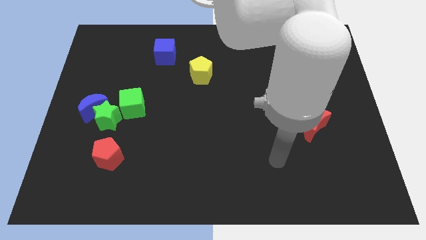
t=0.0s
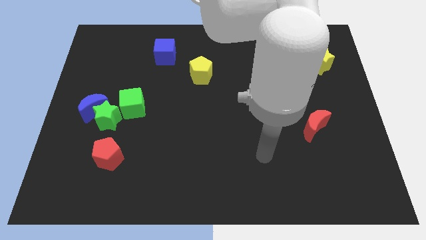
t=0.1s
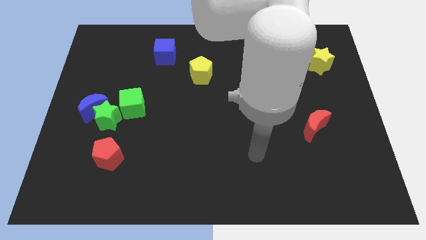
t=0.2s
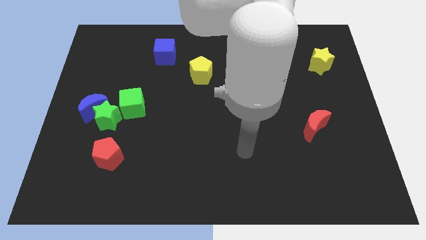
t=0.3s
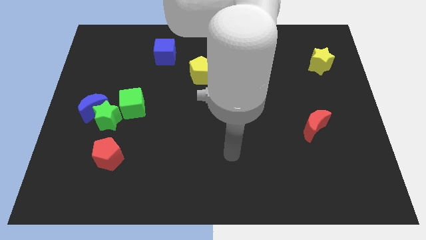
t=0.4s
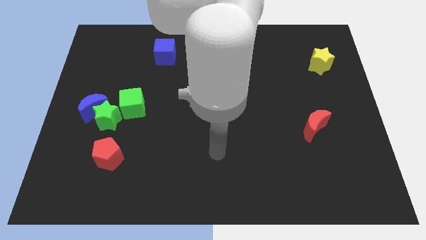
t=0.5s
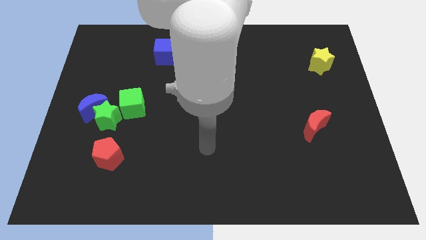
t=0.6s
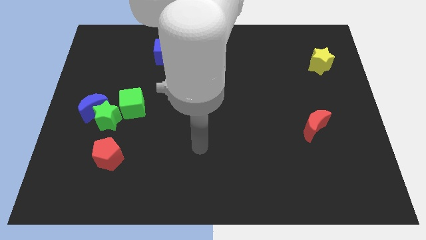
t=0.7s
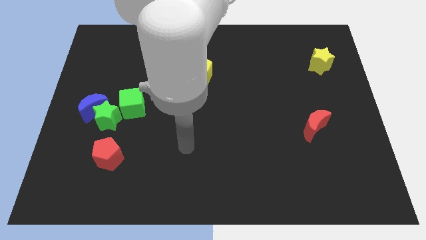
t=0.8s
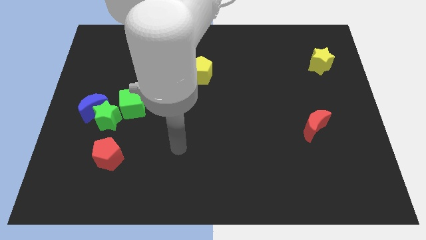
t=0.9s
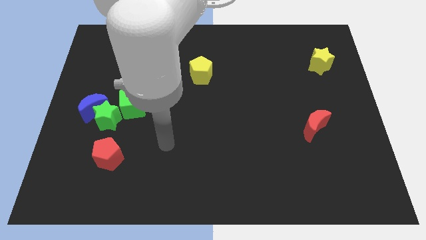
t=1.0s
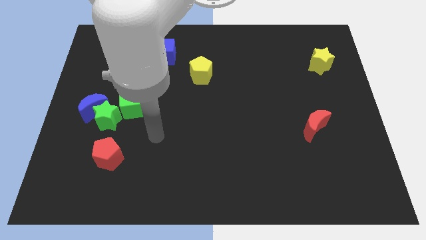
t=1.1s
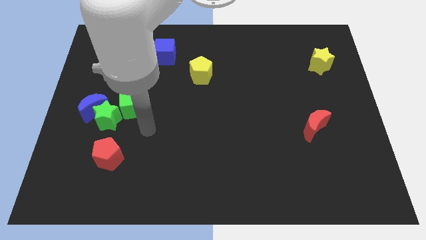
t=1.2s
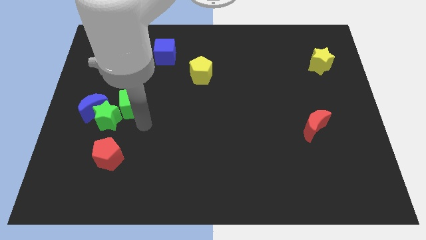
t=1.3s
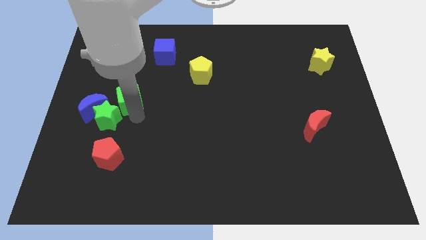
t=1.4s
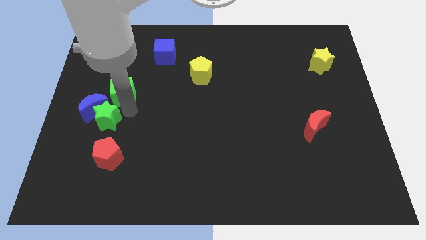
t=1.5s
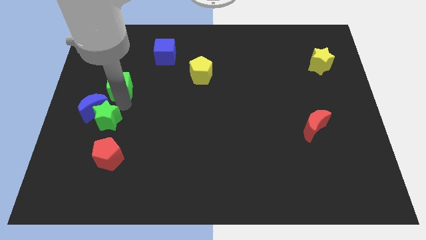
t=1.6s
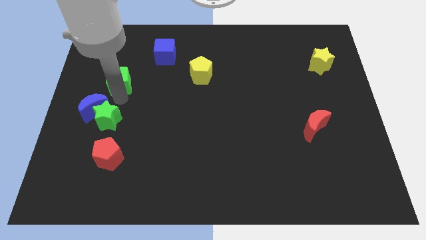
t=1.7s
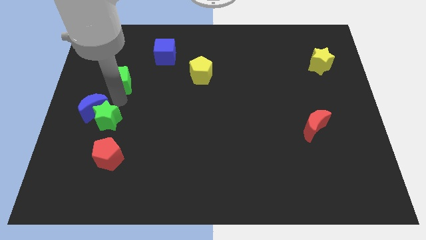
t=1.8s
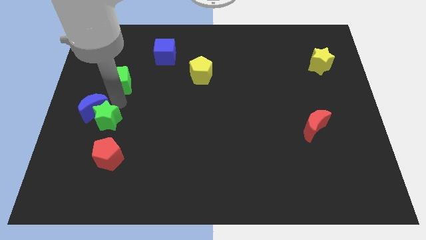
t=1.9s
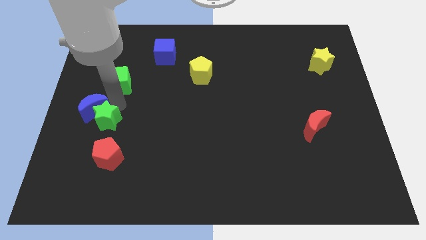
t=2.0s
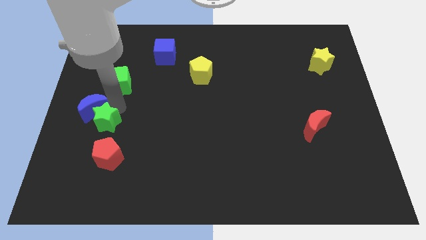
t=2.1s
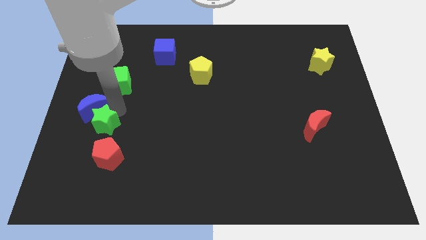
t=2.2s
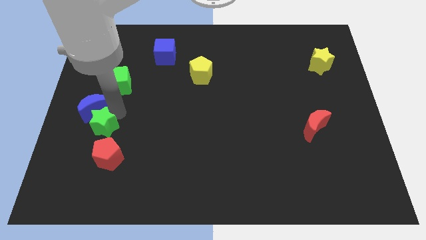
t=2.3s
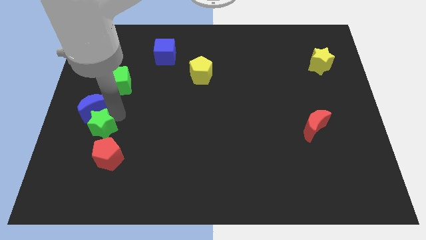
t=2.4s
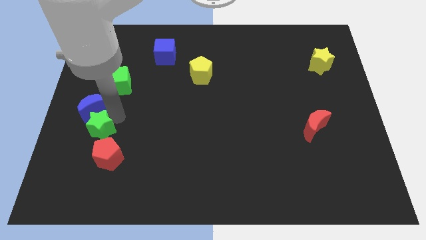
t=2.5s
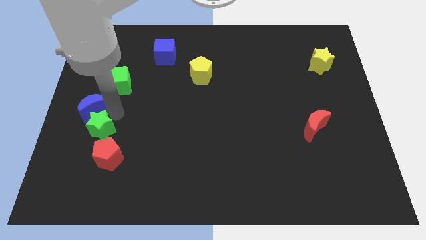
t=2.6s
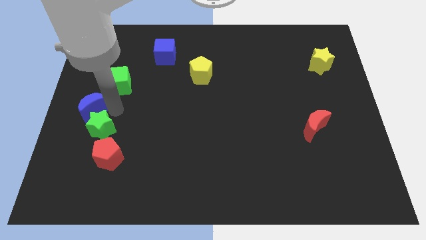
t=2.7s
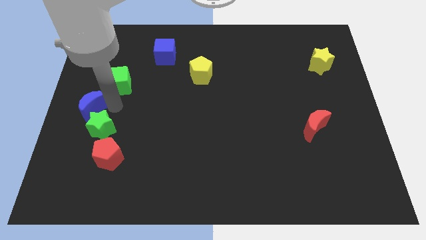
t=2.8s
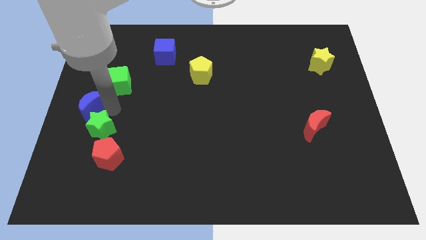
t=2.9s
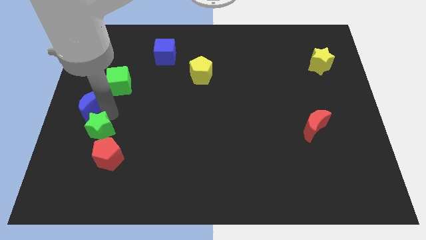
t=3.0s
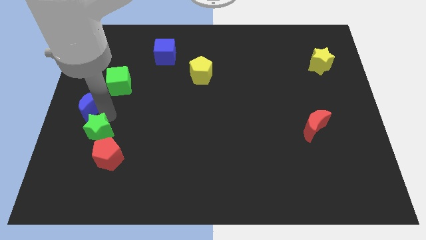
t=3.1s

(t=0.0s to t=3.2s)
move the green star away from the blue moon and green cube

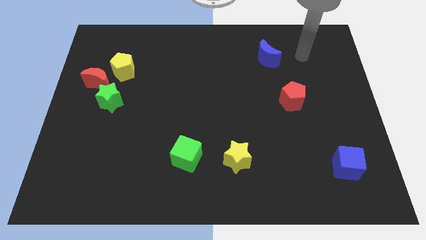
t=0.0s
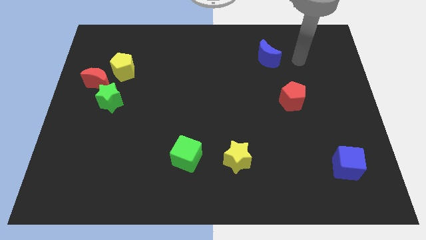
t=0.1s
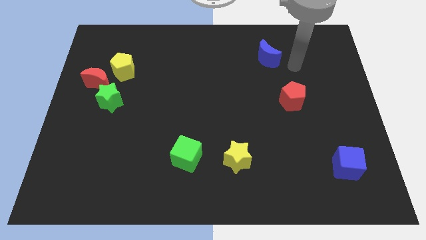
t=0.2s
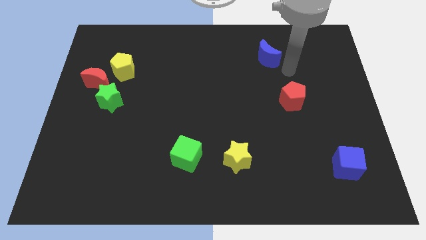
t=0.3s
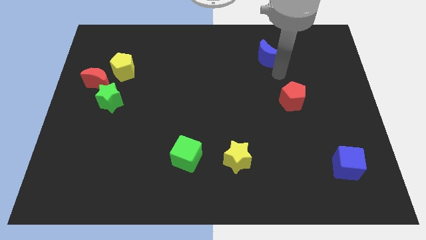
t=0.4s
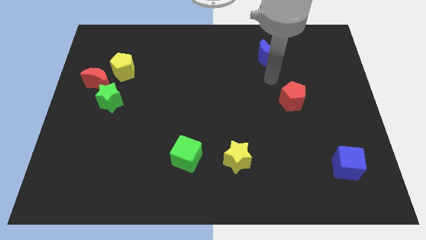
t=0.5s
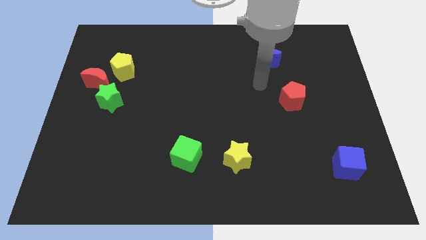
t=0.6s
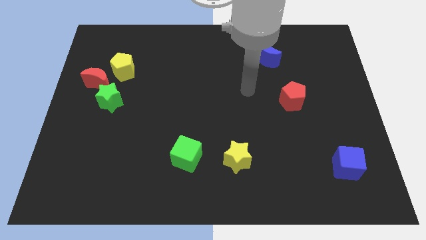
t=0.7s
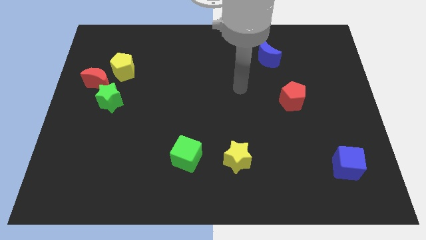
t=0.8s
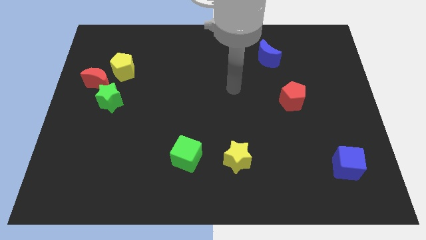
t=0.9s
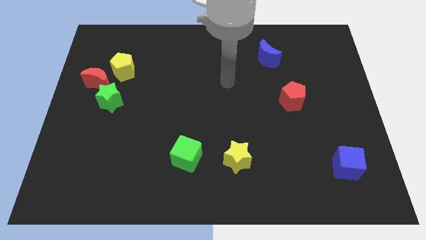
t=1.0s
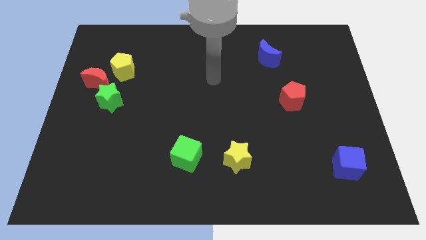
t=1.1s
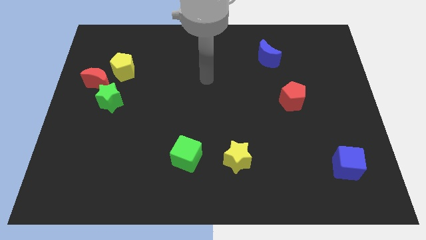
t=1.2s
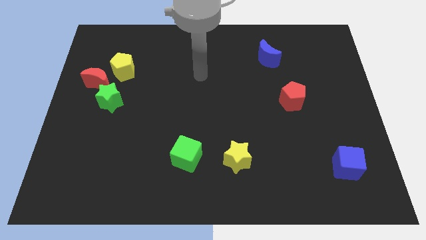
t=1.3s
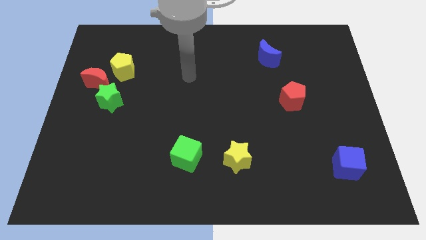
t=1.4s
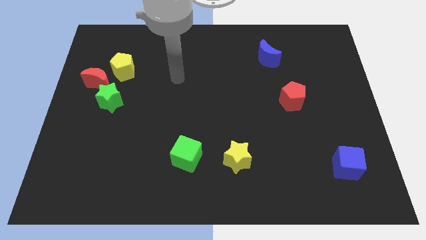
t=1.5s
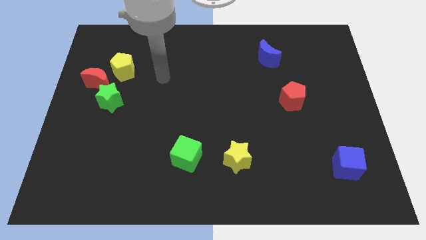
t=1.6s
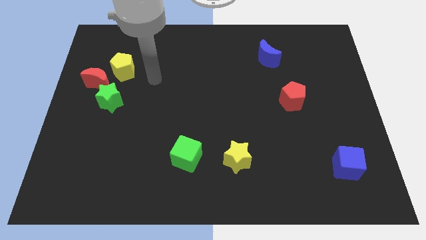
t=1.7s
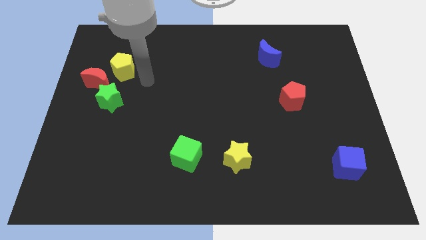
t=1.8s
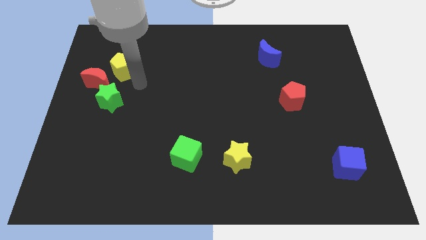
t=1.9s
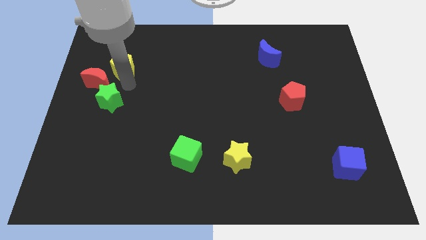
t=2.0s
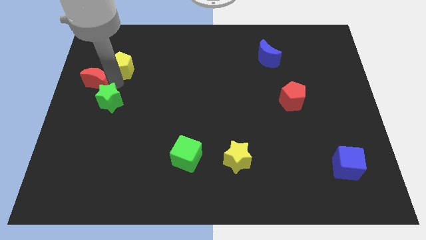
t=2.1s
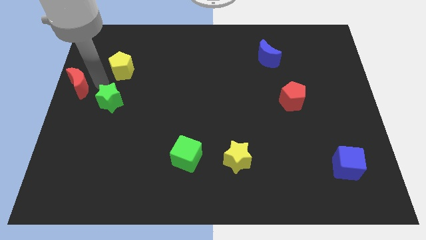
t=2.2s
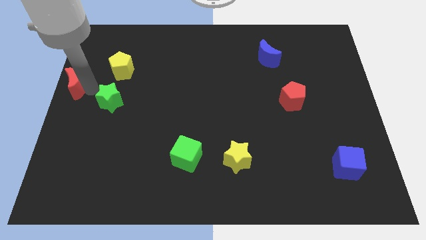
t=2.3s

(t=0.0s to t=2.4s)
separate the green star from the red moon

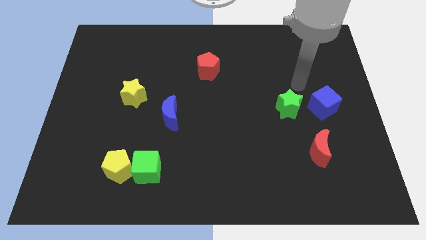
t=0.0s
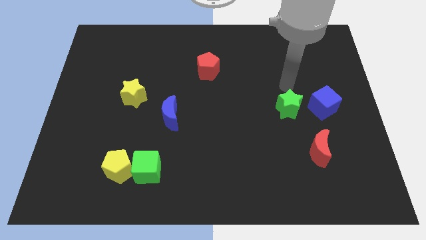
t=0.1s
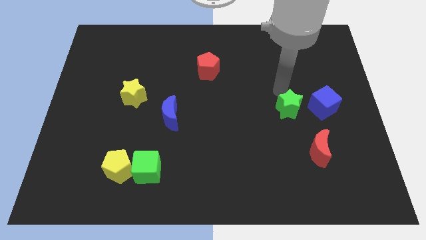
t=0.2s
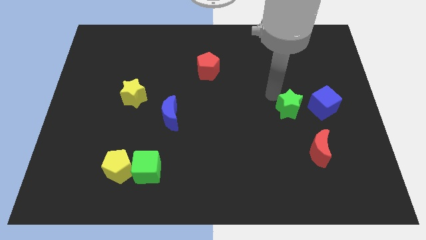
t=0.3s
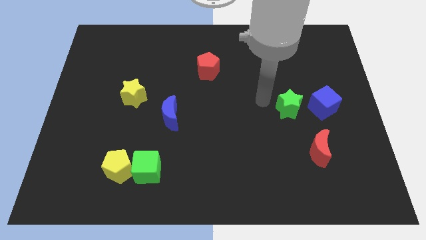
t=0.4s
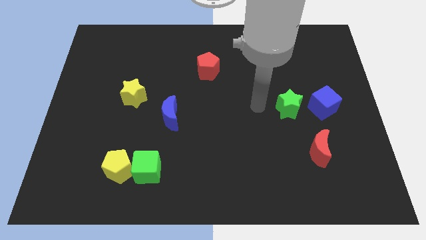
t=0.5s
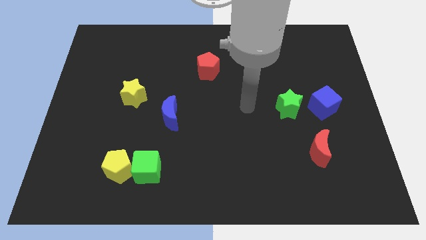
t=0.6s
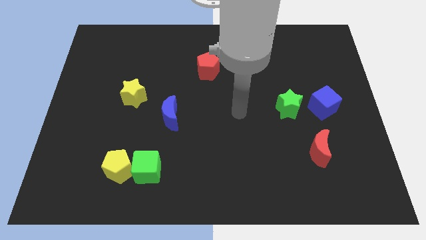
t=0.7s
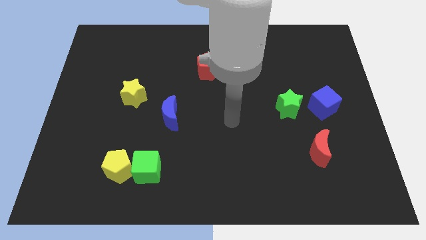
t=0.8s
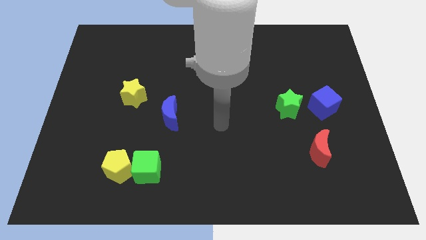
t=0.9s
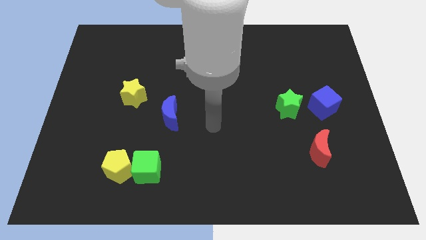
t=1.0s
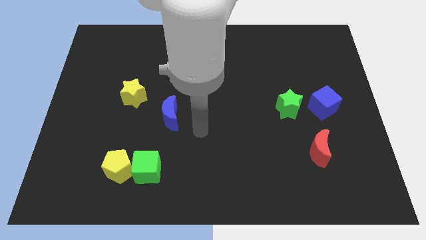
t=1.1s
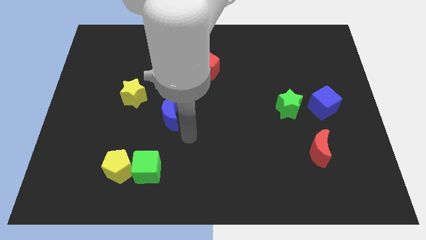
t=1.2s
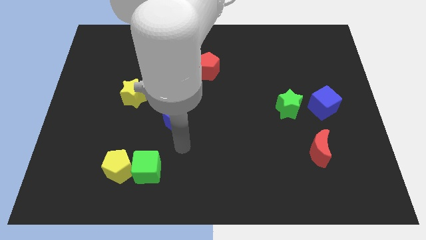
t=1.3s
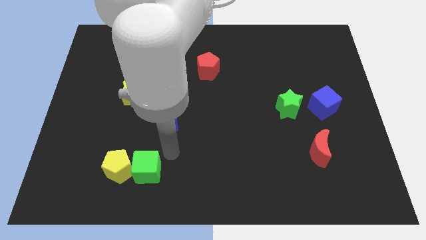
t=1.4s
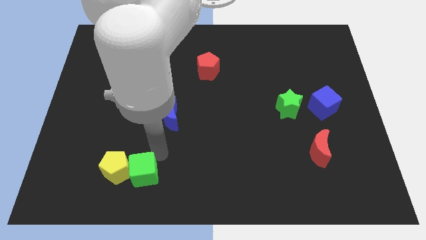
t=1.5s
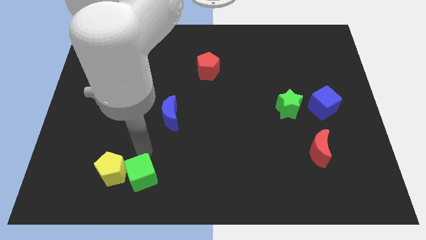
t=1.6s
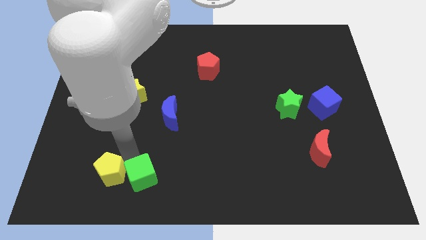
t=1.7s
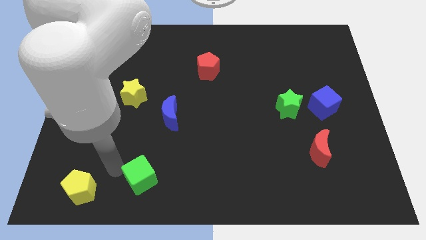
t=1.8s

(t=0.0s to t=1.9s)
separate the green cube from the yellow pentagon

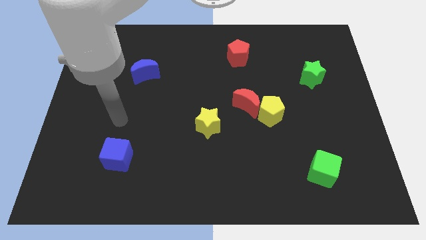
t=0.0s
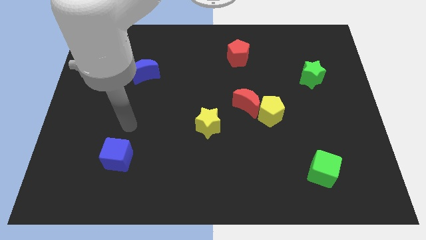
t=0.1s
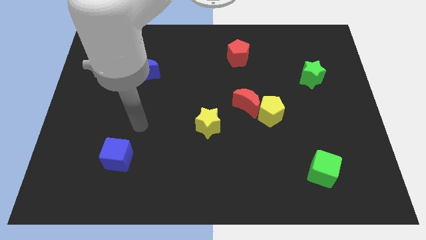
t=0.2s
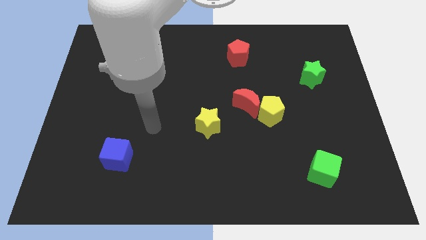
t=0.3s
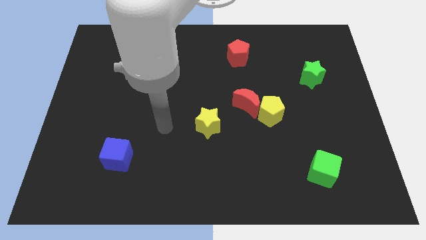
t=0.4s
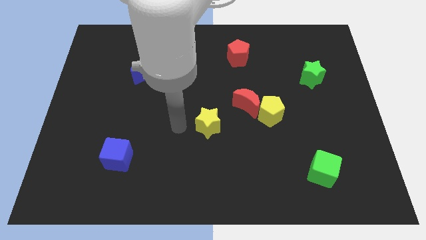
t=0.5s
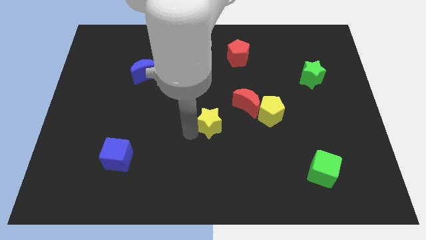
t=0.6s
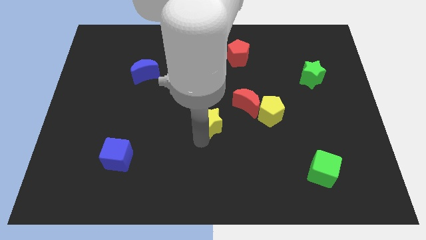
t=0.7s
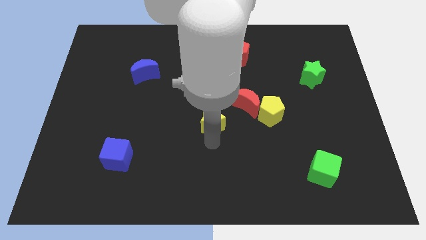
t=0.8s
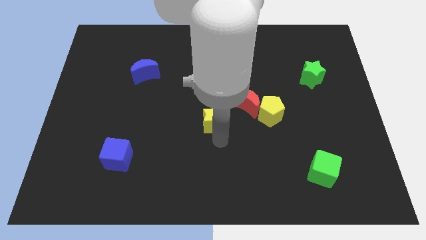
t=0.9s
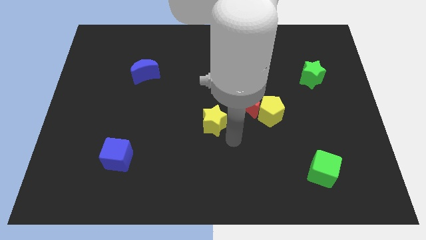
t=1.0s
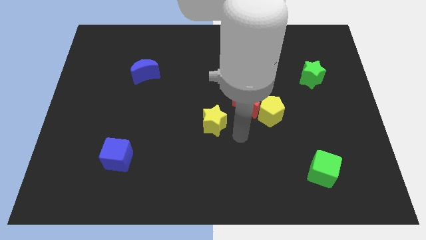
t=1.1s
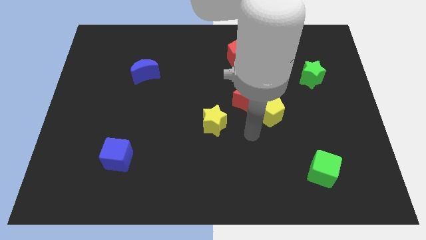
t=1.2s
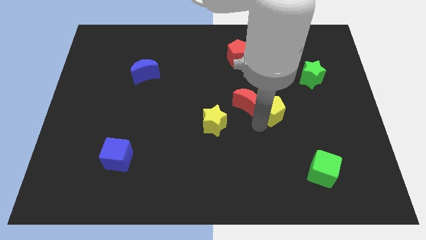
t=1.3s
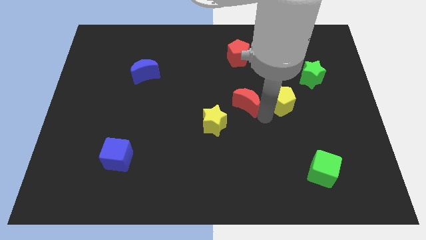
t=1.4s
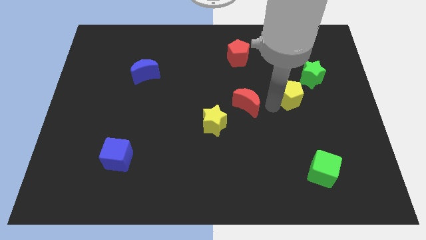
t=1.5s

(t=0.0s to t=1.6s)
move the red moon away from the yellow pentagon

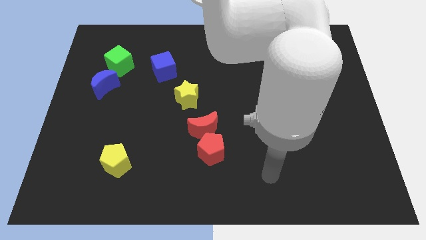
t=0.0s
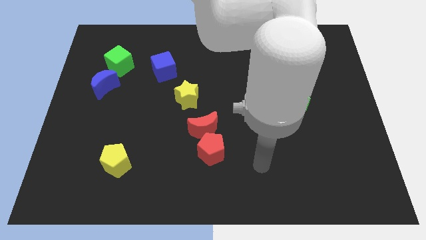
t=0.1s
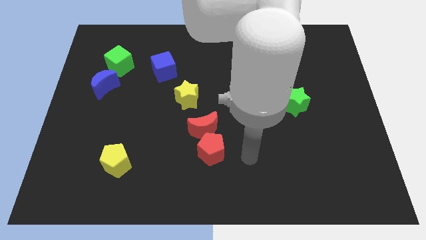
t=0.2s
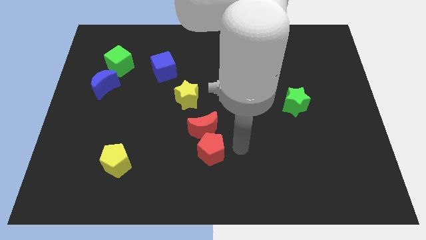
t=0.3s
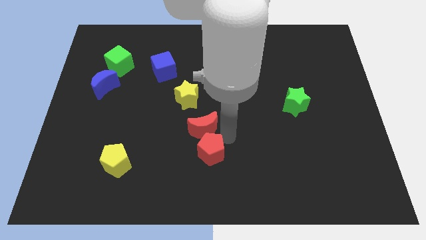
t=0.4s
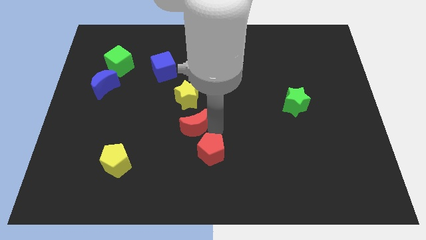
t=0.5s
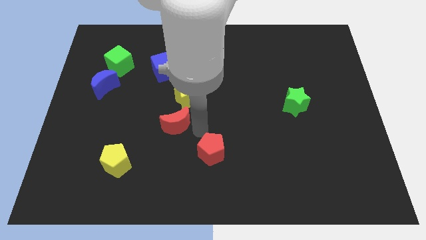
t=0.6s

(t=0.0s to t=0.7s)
separate the red pentagon from the red moon
